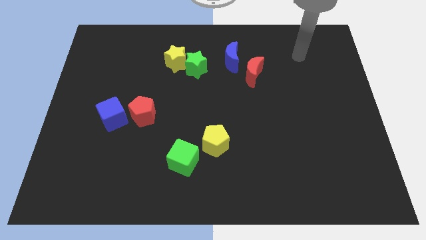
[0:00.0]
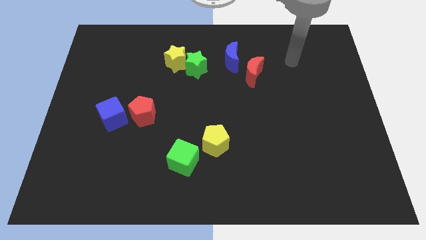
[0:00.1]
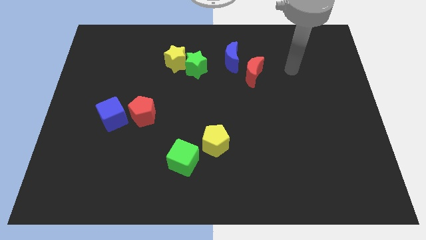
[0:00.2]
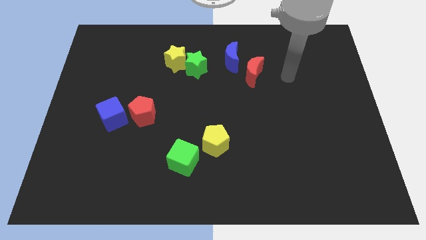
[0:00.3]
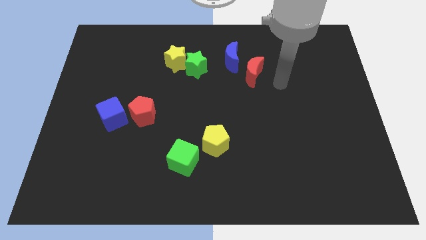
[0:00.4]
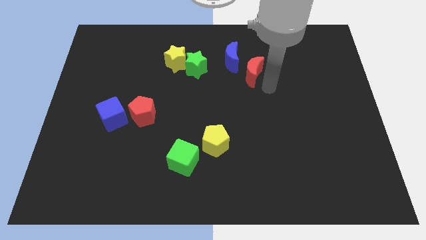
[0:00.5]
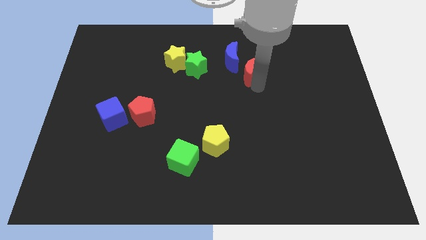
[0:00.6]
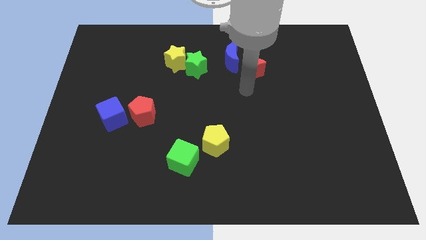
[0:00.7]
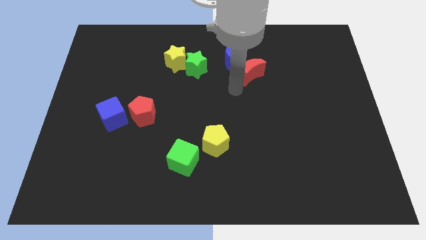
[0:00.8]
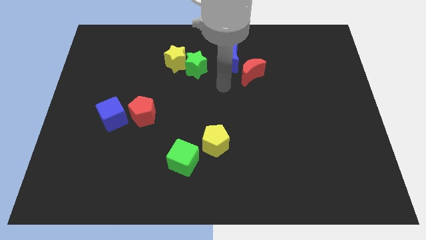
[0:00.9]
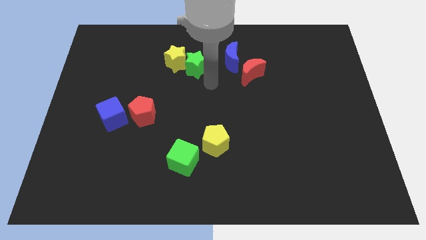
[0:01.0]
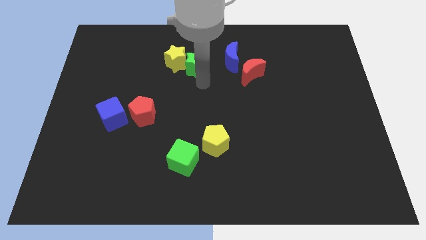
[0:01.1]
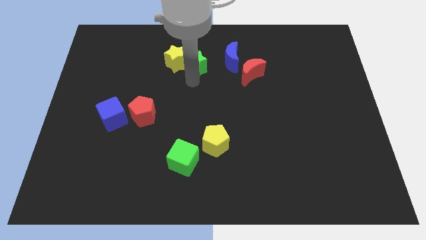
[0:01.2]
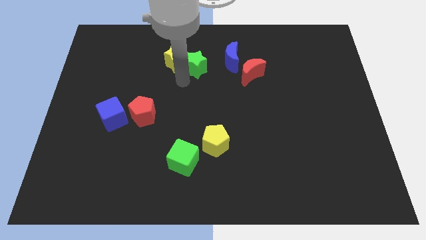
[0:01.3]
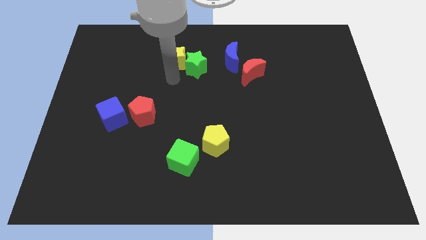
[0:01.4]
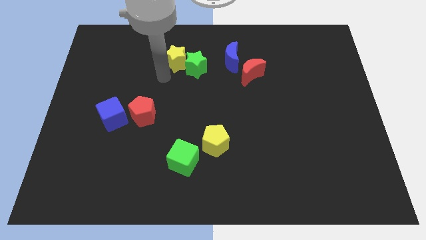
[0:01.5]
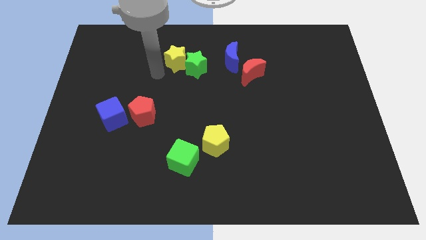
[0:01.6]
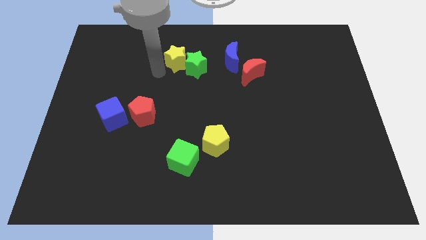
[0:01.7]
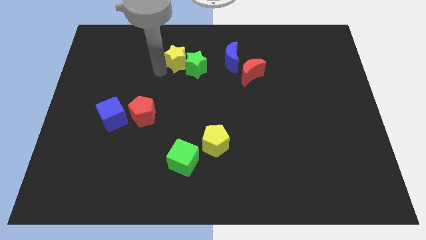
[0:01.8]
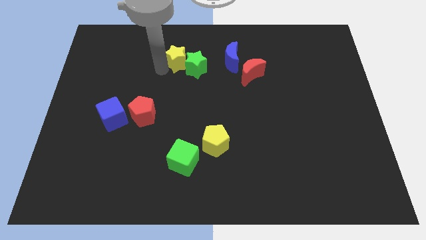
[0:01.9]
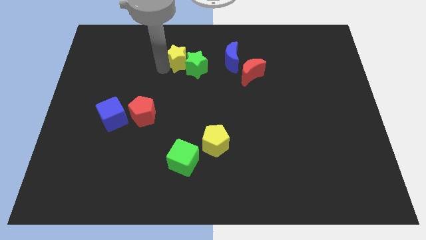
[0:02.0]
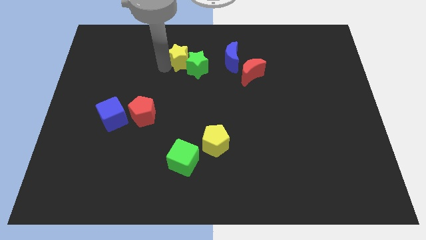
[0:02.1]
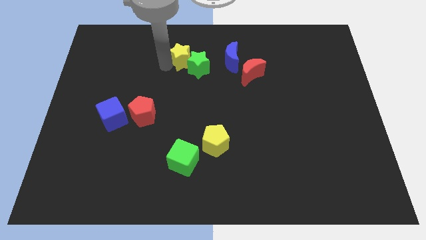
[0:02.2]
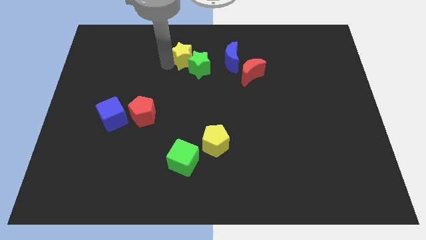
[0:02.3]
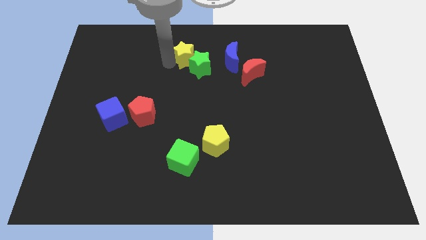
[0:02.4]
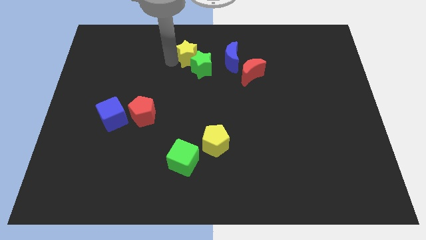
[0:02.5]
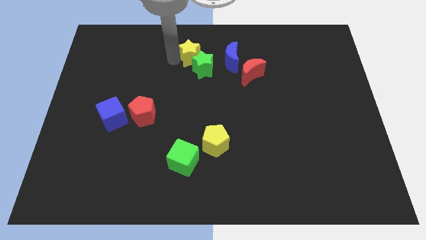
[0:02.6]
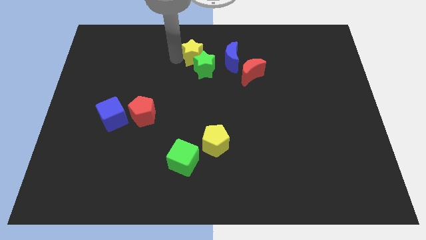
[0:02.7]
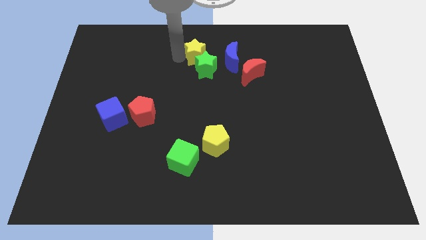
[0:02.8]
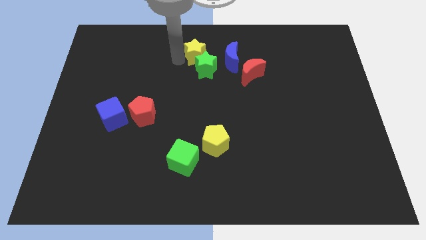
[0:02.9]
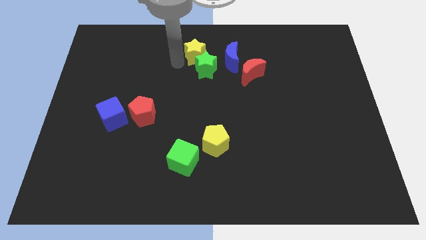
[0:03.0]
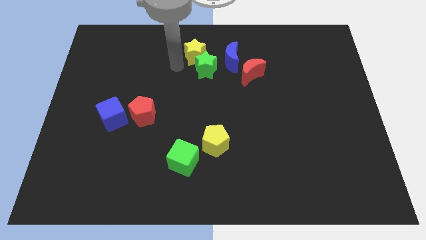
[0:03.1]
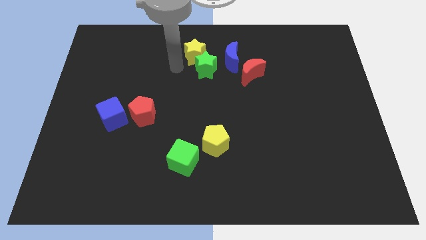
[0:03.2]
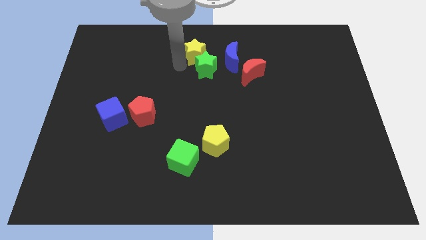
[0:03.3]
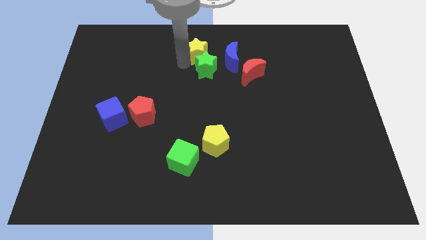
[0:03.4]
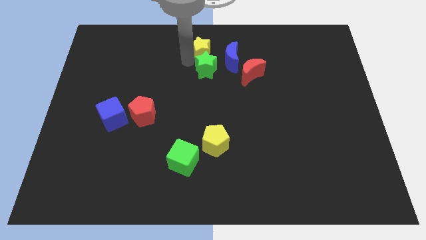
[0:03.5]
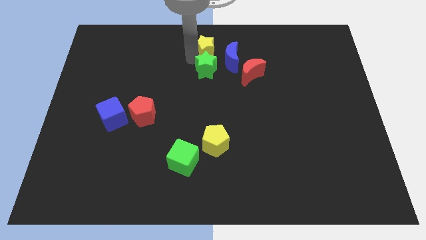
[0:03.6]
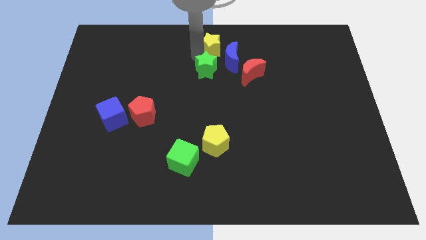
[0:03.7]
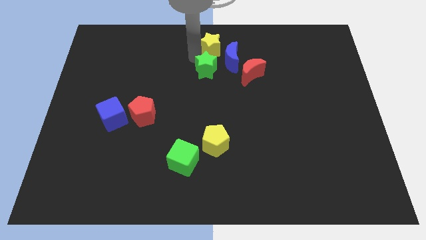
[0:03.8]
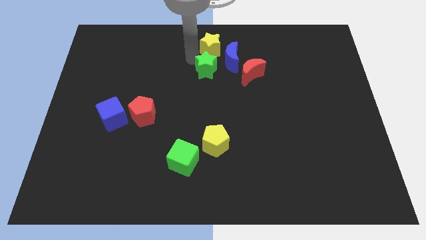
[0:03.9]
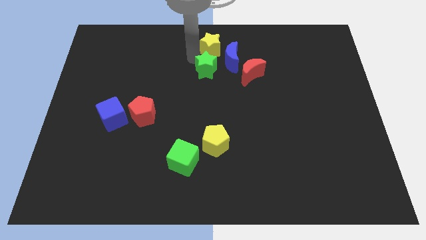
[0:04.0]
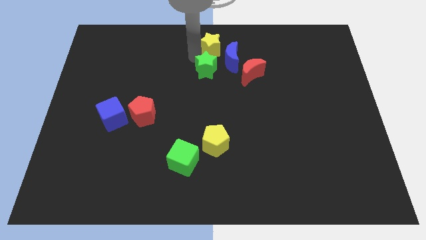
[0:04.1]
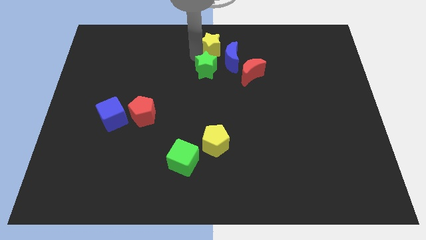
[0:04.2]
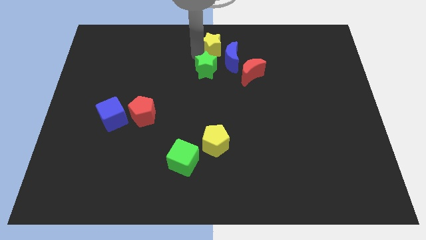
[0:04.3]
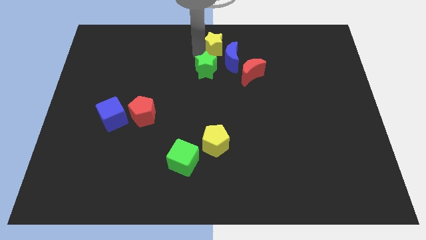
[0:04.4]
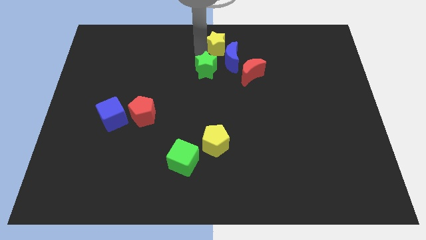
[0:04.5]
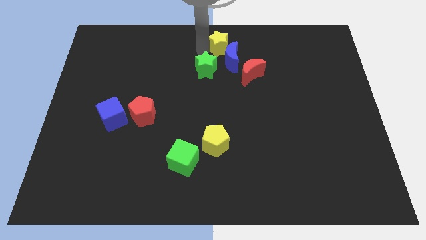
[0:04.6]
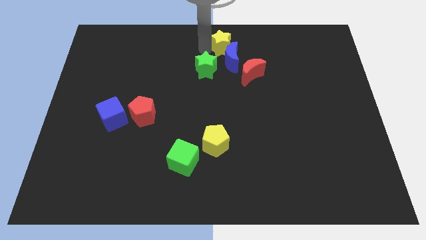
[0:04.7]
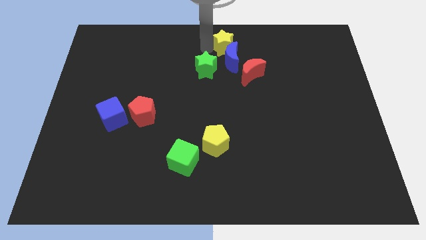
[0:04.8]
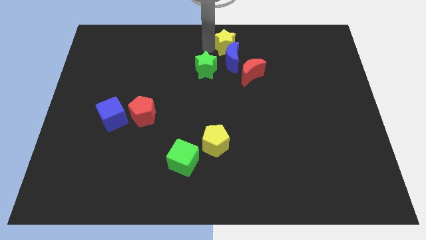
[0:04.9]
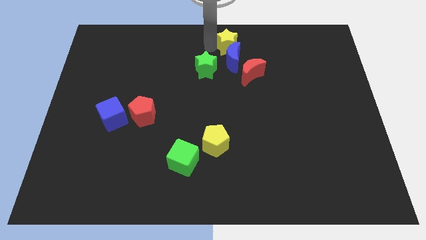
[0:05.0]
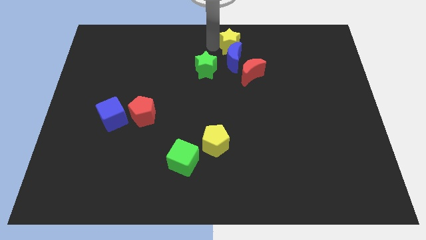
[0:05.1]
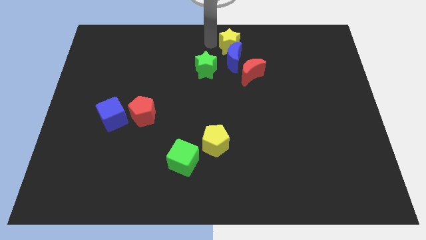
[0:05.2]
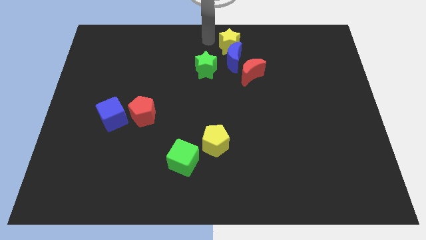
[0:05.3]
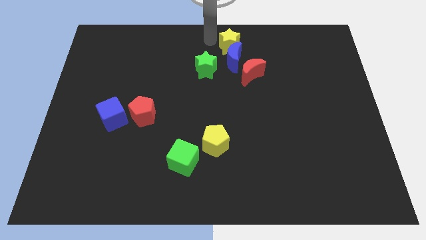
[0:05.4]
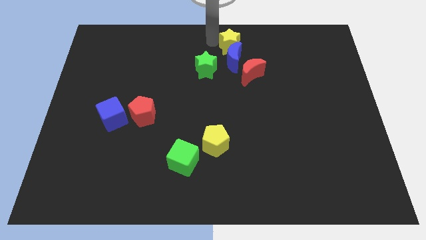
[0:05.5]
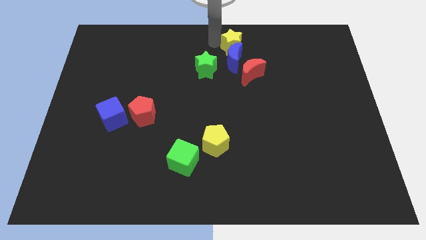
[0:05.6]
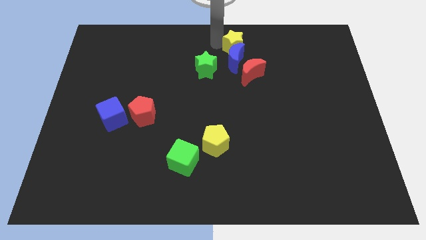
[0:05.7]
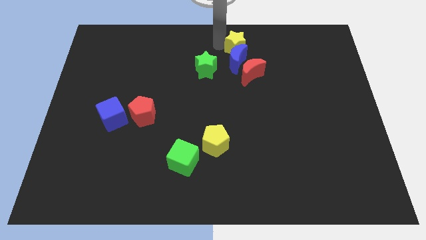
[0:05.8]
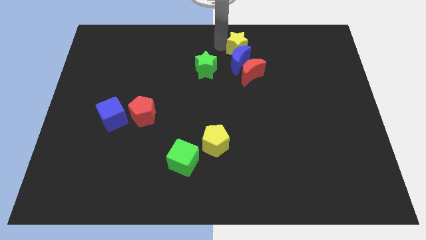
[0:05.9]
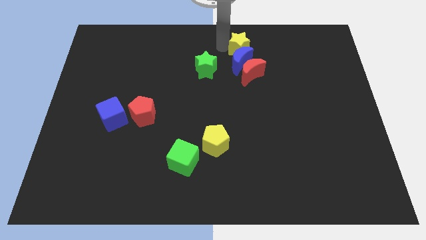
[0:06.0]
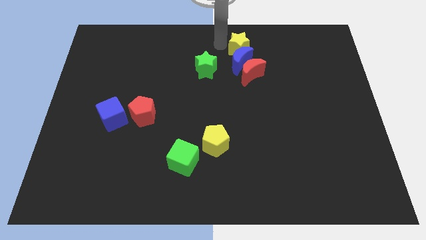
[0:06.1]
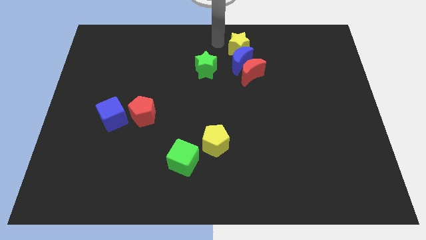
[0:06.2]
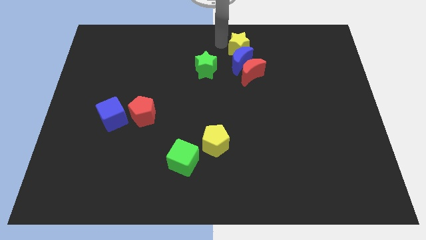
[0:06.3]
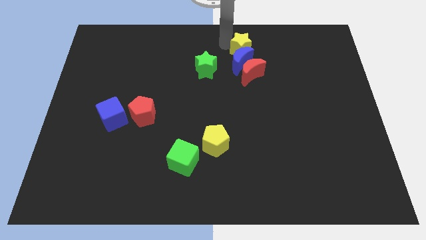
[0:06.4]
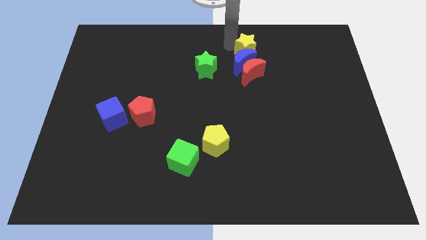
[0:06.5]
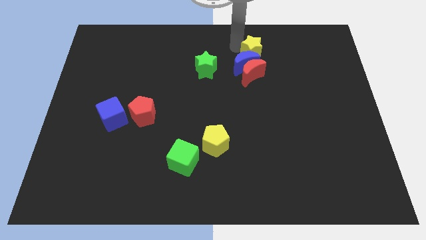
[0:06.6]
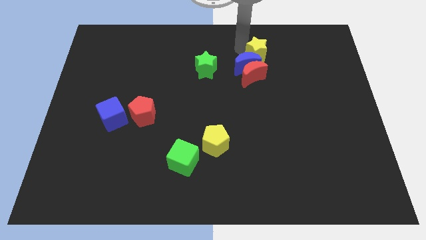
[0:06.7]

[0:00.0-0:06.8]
move the yellow star right

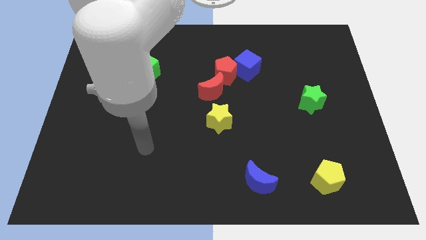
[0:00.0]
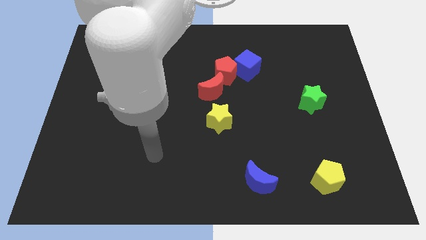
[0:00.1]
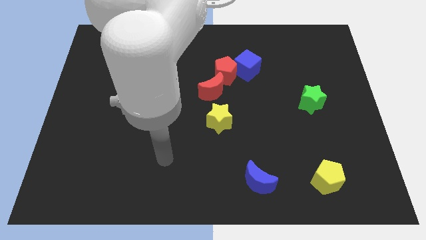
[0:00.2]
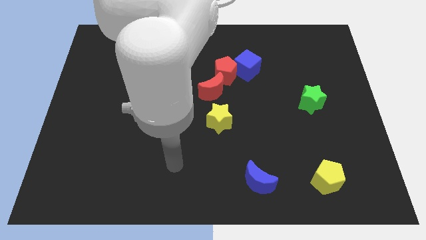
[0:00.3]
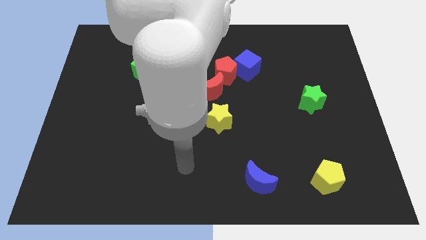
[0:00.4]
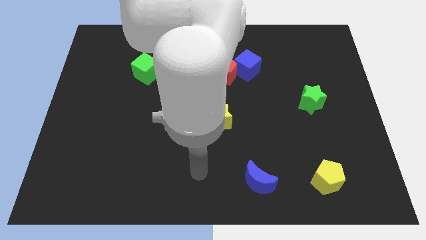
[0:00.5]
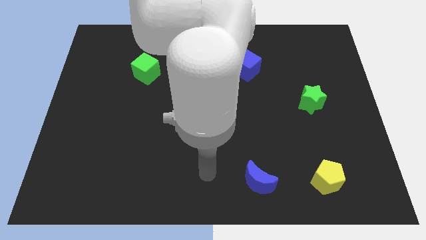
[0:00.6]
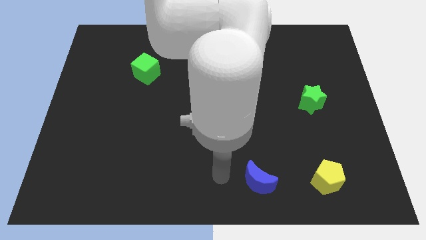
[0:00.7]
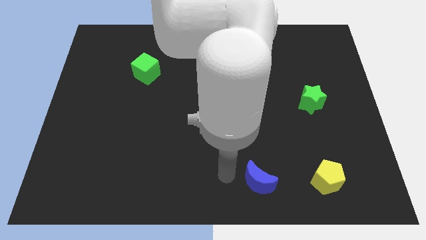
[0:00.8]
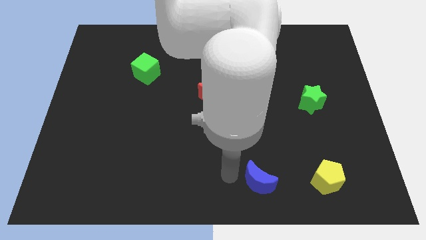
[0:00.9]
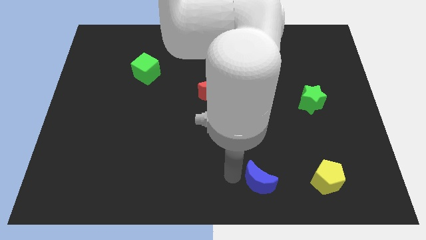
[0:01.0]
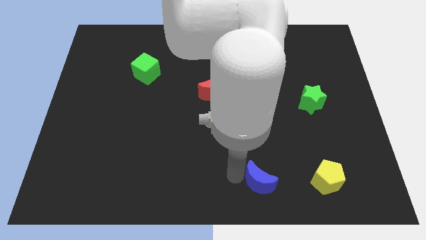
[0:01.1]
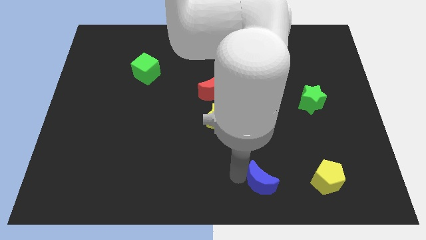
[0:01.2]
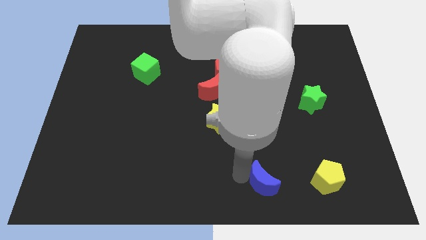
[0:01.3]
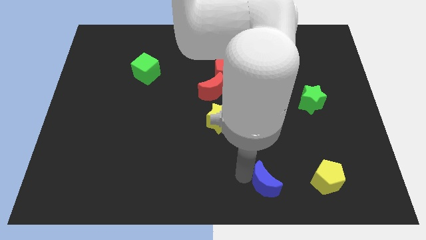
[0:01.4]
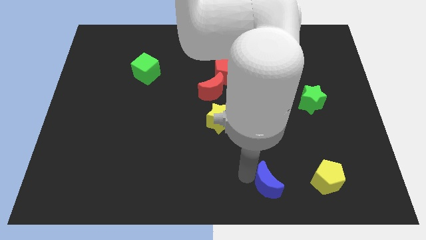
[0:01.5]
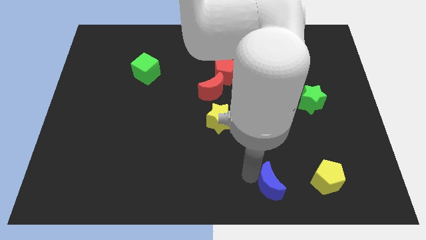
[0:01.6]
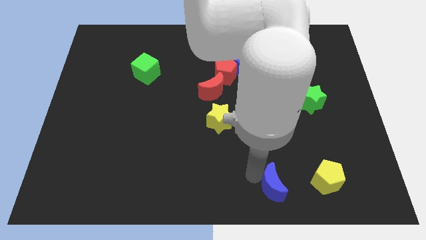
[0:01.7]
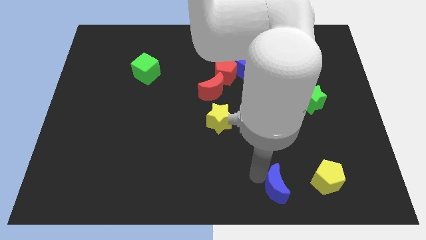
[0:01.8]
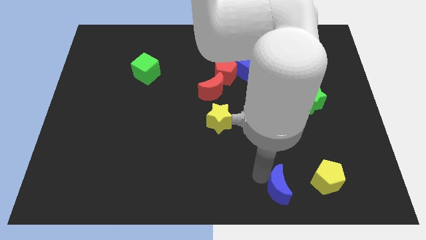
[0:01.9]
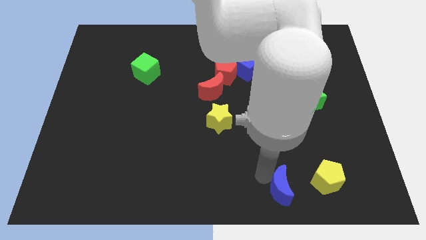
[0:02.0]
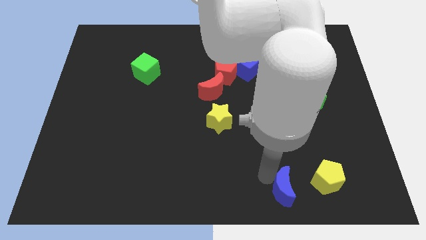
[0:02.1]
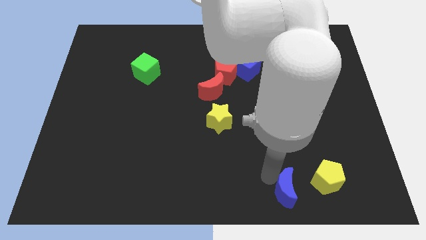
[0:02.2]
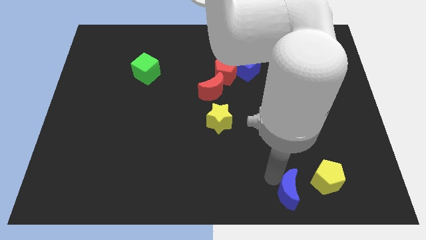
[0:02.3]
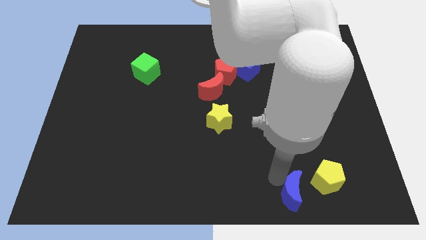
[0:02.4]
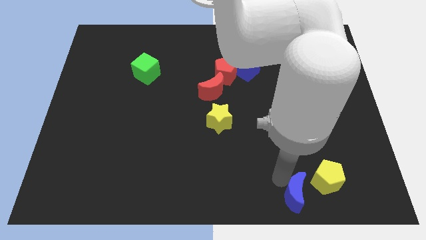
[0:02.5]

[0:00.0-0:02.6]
move the blue moon right a little bit
